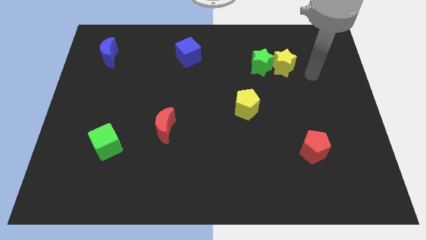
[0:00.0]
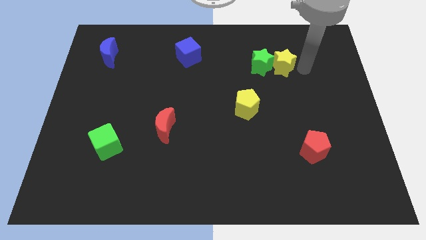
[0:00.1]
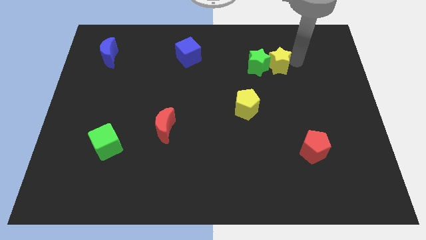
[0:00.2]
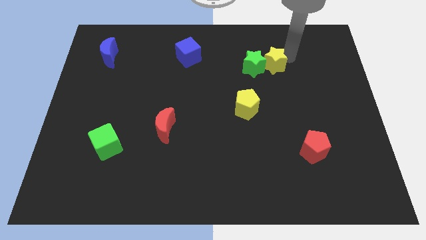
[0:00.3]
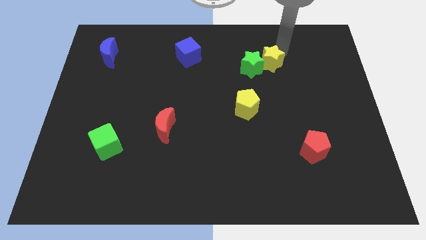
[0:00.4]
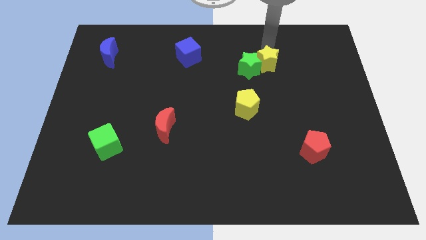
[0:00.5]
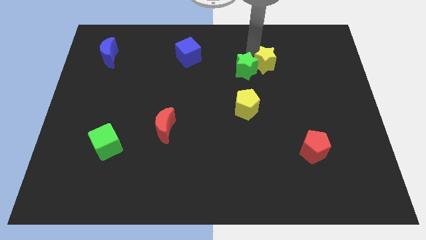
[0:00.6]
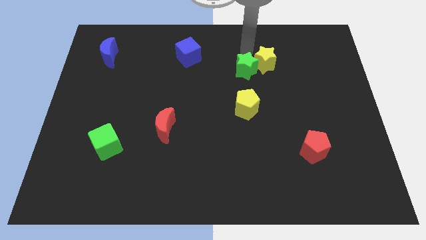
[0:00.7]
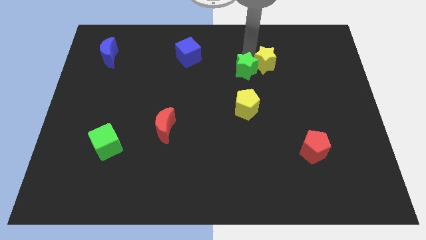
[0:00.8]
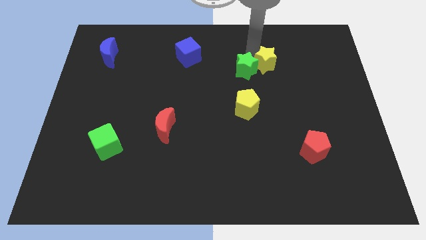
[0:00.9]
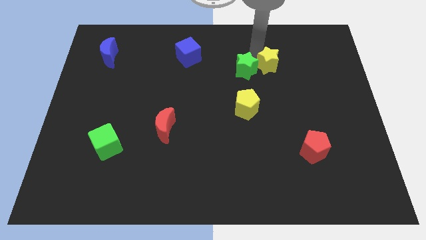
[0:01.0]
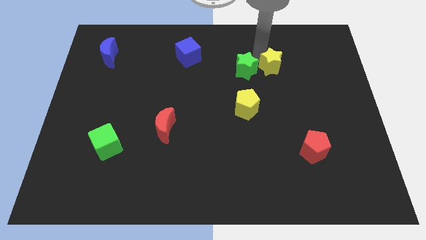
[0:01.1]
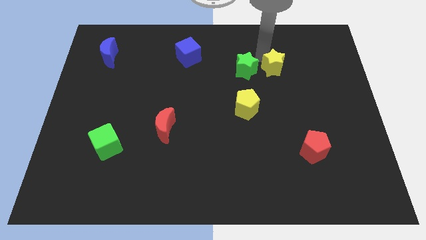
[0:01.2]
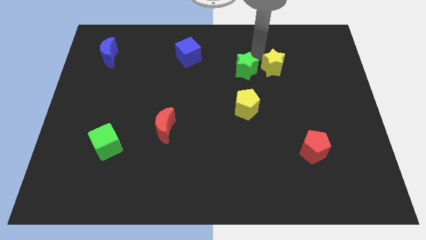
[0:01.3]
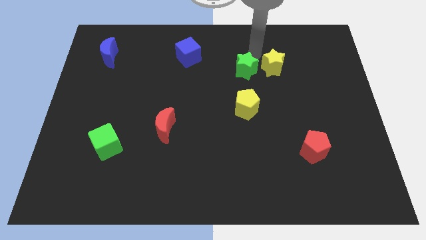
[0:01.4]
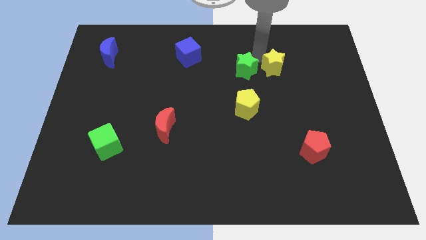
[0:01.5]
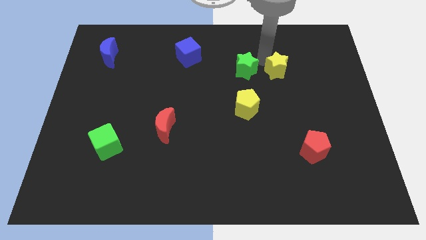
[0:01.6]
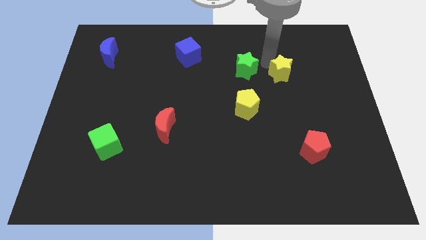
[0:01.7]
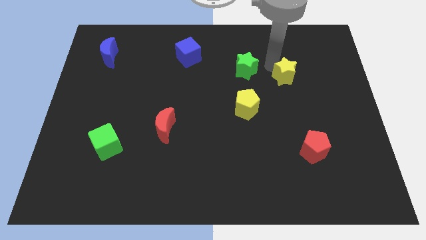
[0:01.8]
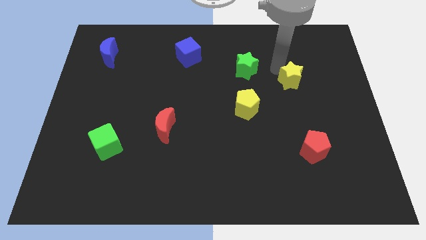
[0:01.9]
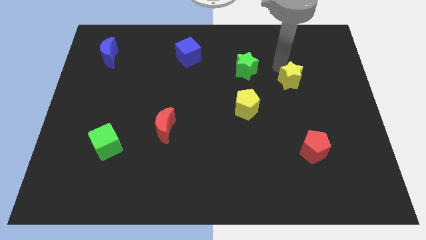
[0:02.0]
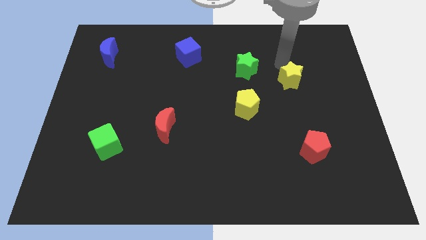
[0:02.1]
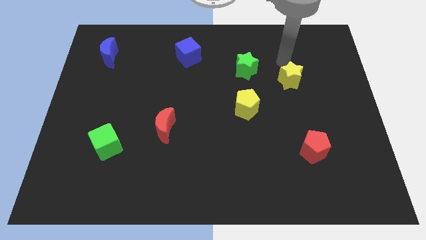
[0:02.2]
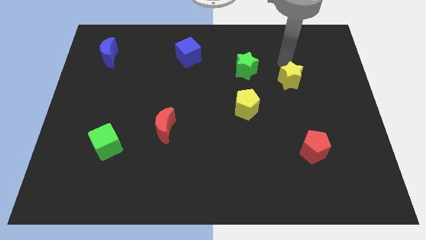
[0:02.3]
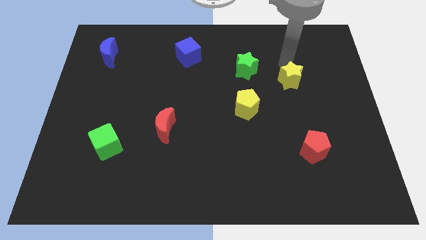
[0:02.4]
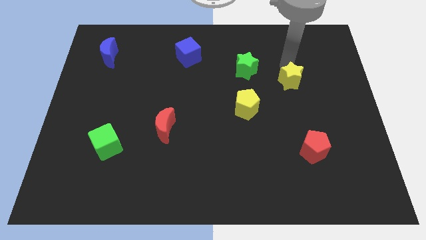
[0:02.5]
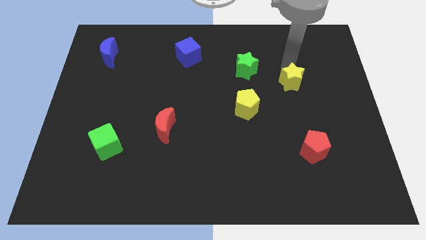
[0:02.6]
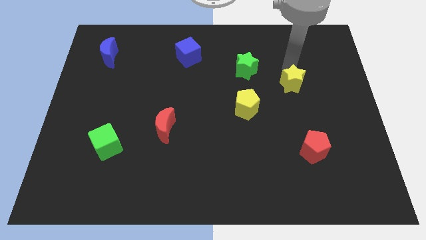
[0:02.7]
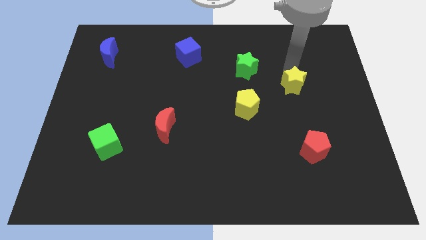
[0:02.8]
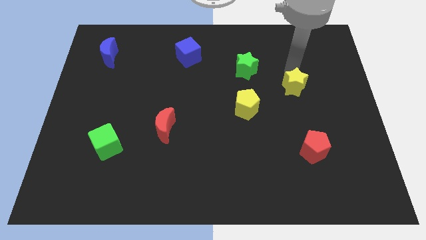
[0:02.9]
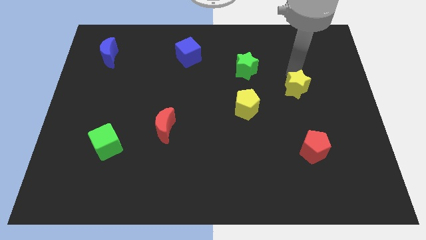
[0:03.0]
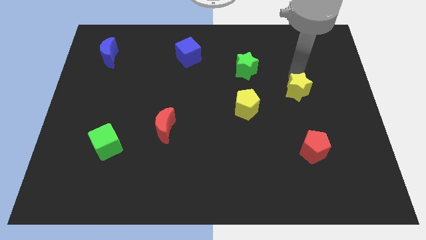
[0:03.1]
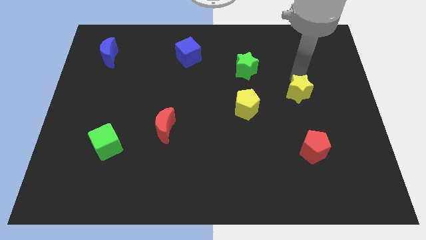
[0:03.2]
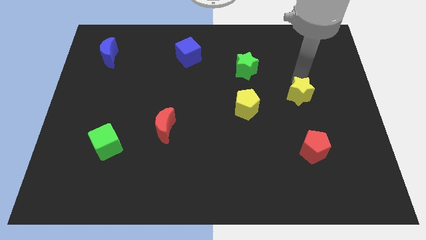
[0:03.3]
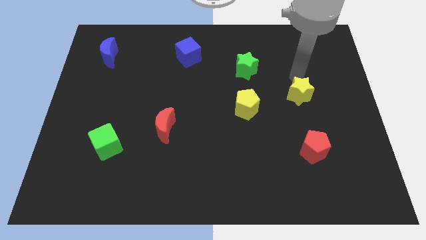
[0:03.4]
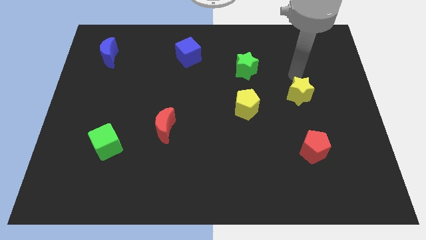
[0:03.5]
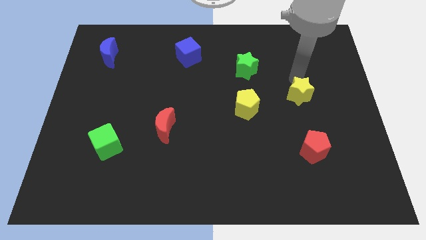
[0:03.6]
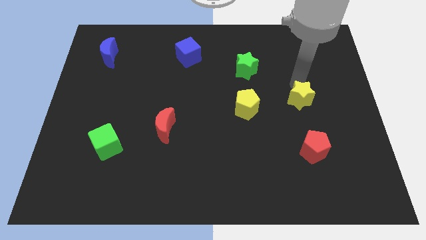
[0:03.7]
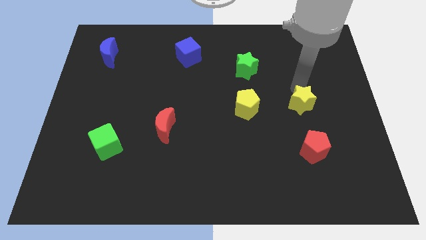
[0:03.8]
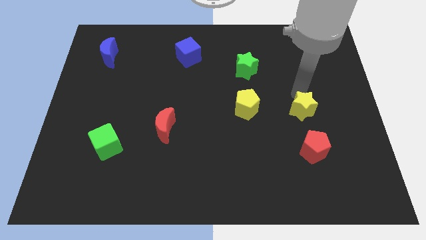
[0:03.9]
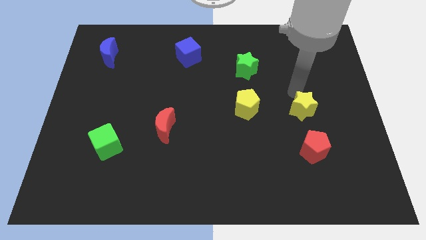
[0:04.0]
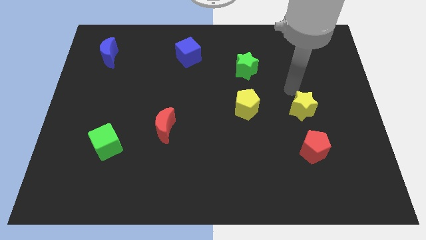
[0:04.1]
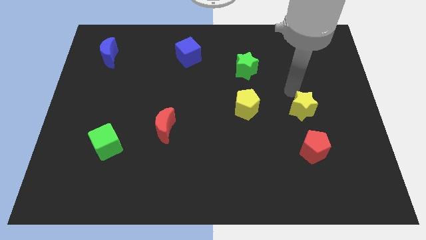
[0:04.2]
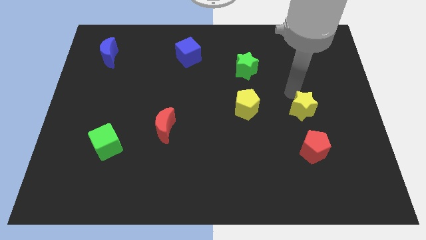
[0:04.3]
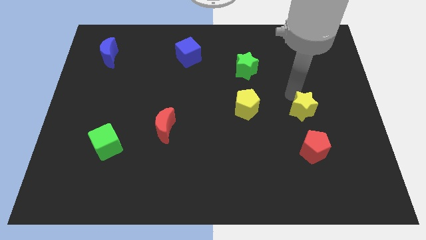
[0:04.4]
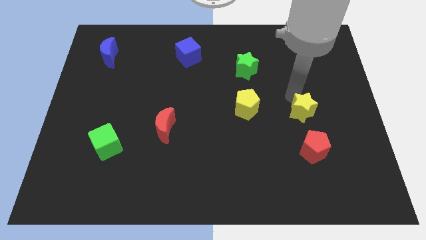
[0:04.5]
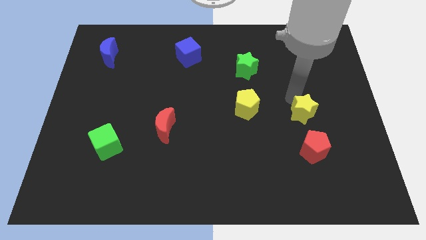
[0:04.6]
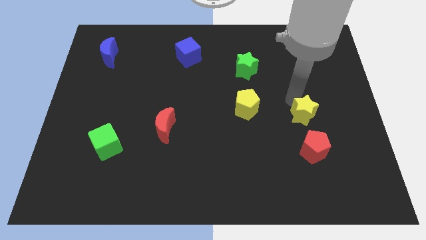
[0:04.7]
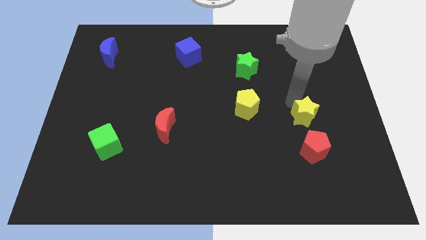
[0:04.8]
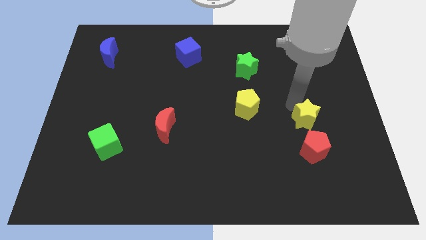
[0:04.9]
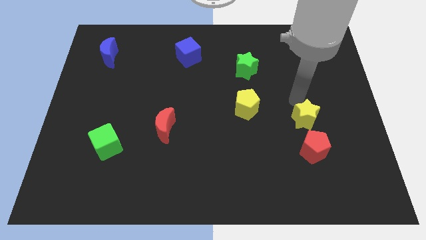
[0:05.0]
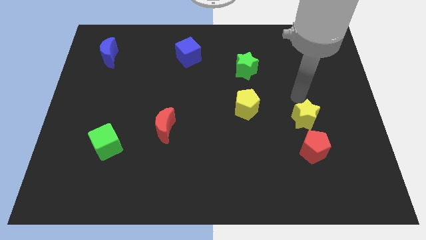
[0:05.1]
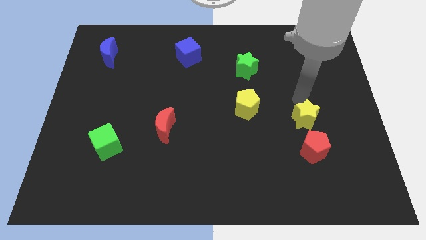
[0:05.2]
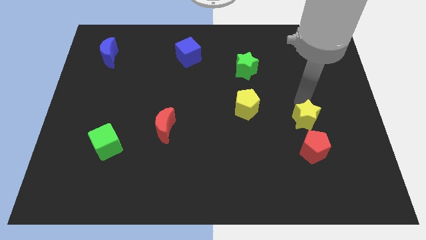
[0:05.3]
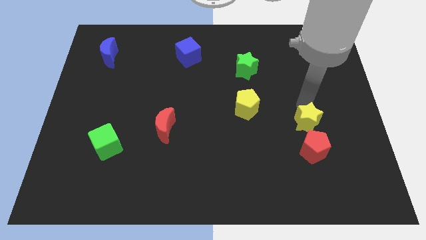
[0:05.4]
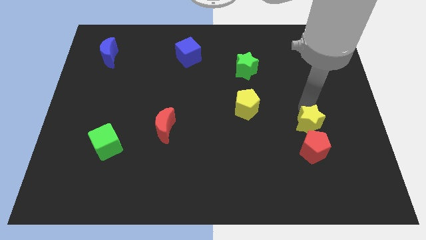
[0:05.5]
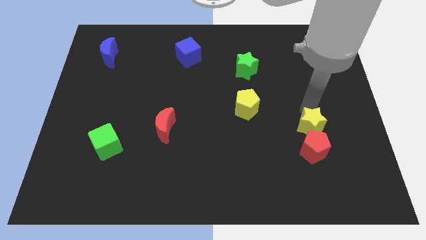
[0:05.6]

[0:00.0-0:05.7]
put the yellow star next to the red pentagon

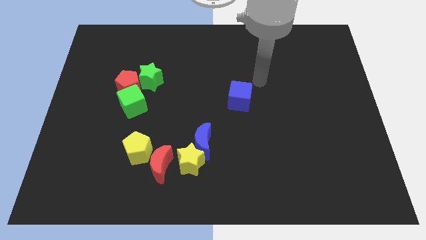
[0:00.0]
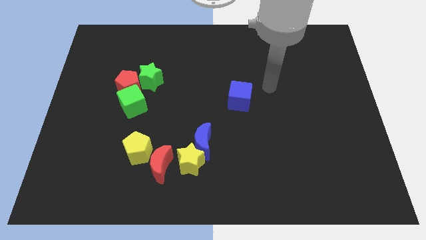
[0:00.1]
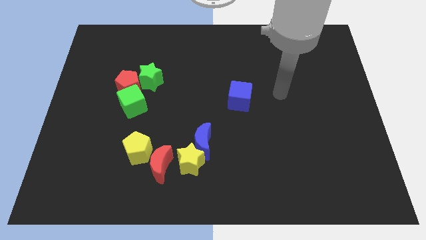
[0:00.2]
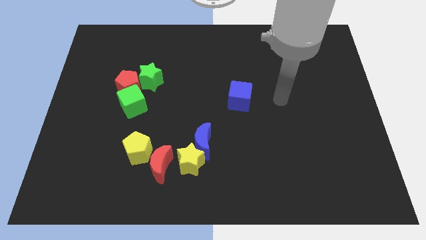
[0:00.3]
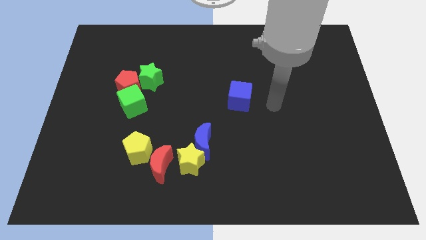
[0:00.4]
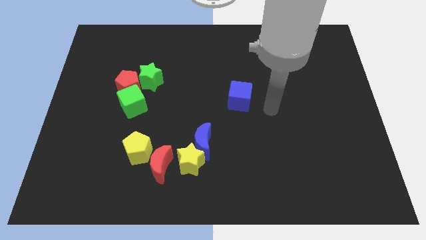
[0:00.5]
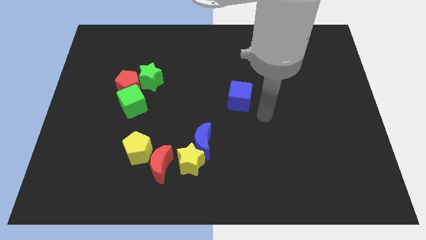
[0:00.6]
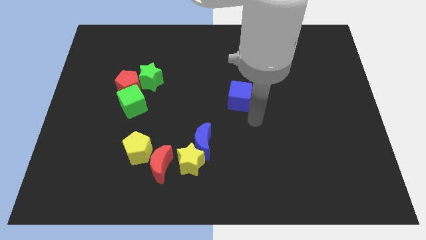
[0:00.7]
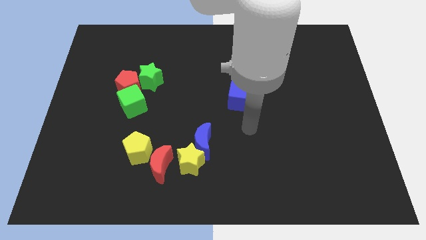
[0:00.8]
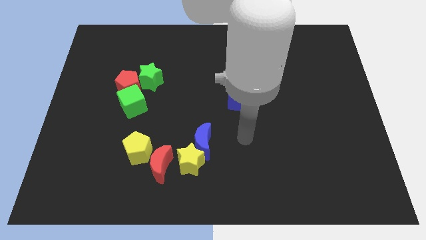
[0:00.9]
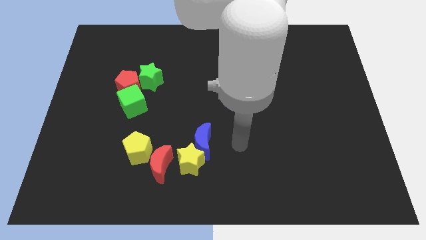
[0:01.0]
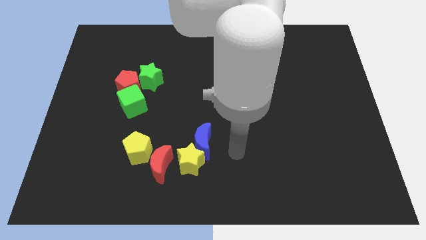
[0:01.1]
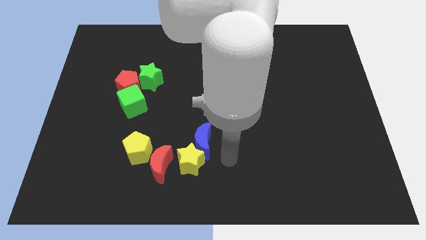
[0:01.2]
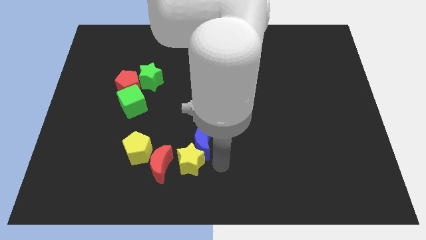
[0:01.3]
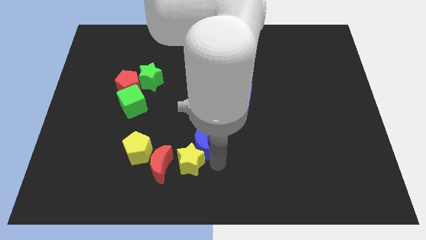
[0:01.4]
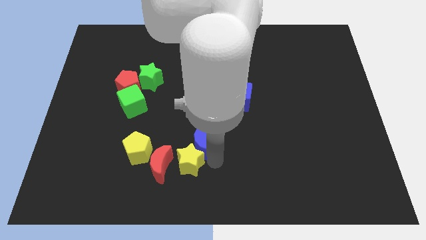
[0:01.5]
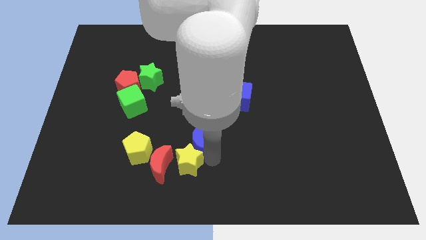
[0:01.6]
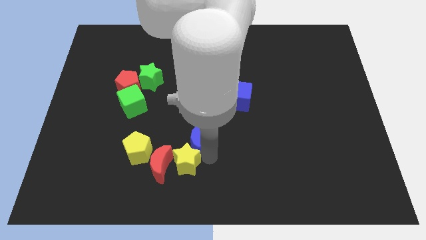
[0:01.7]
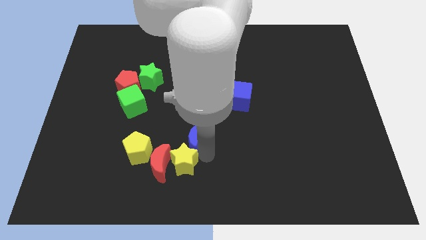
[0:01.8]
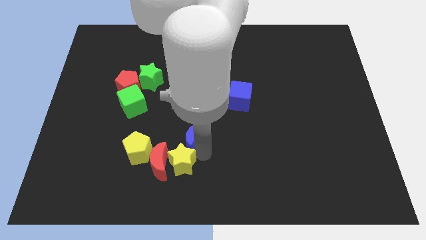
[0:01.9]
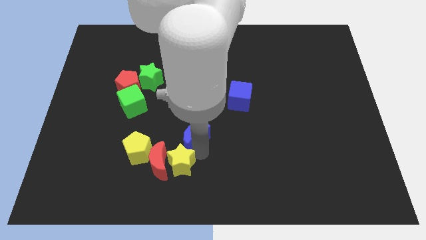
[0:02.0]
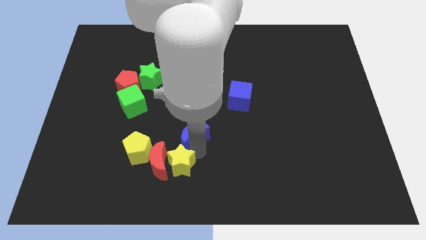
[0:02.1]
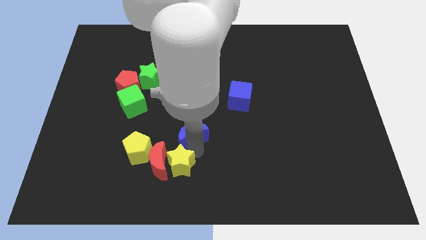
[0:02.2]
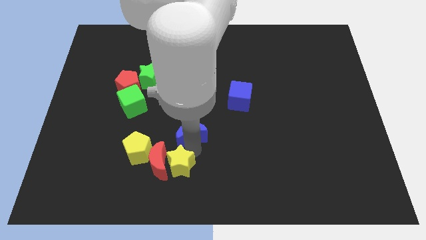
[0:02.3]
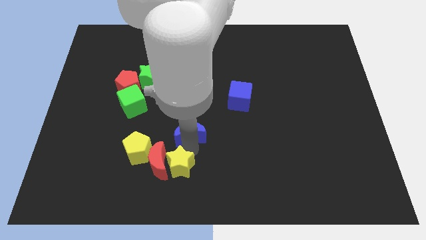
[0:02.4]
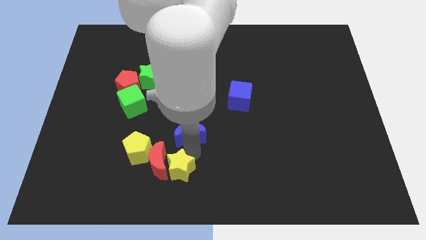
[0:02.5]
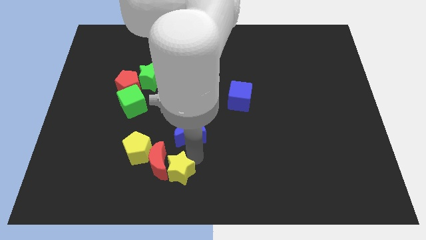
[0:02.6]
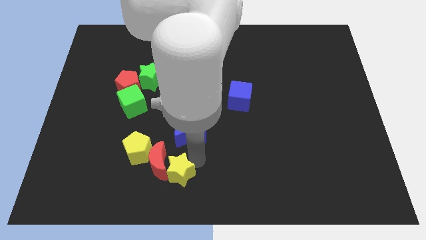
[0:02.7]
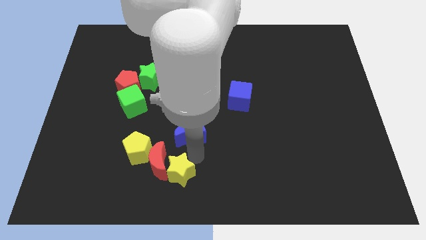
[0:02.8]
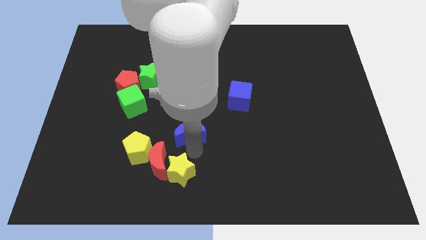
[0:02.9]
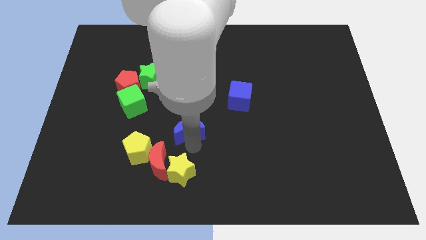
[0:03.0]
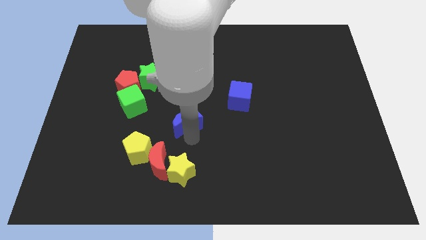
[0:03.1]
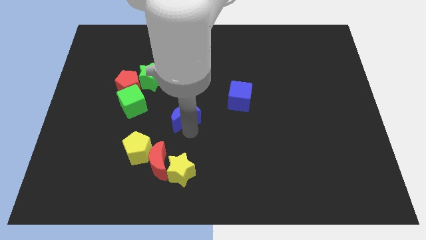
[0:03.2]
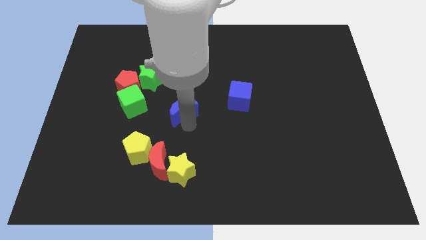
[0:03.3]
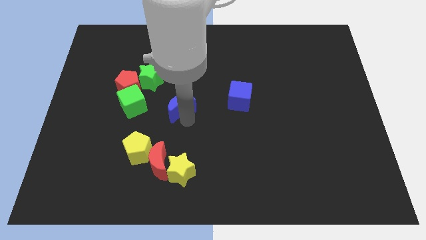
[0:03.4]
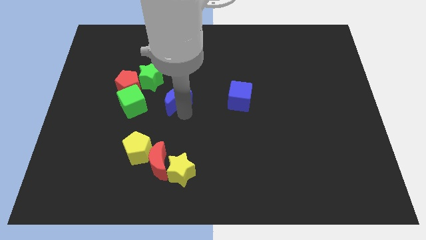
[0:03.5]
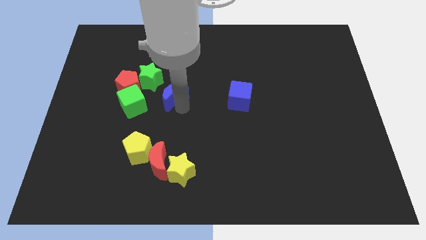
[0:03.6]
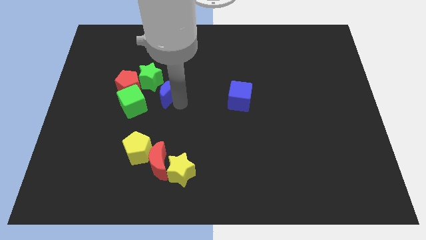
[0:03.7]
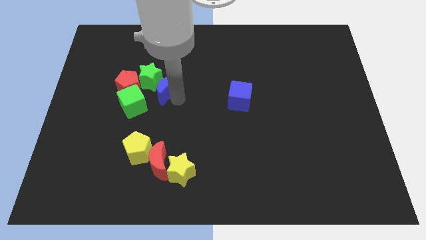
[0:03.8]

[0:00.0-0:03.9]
move the blue moon next to the green star
